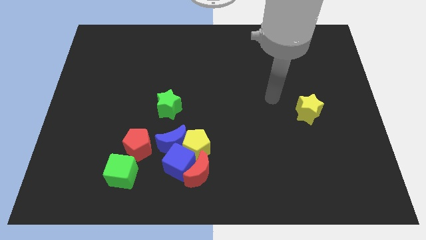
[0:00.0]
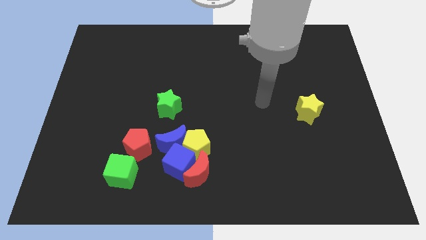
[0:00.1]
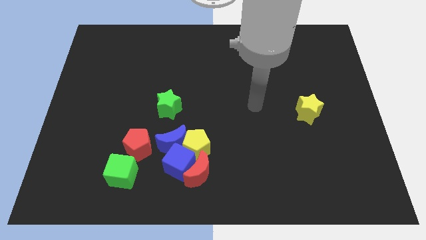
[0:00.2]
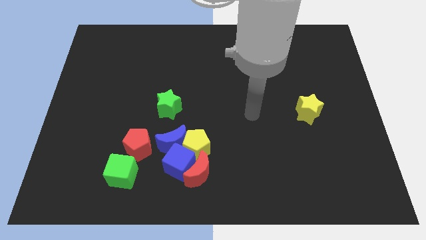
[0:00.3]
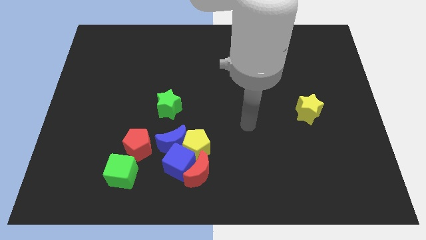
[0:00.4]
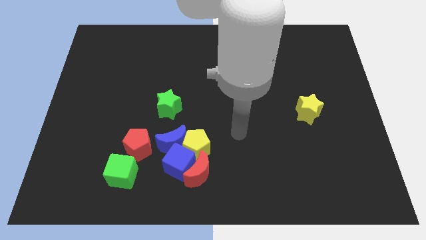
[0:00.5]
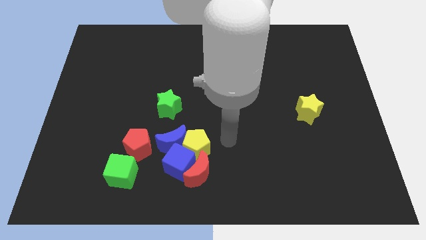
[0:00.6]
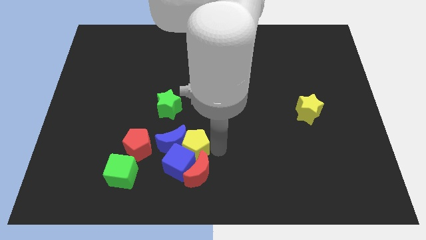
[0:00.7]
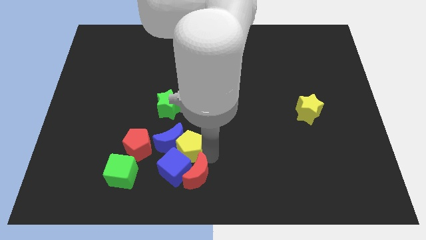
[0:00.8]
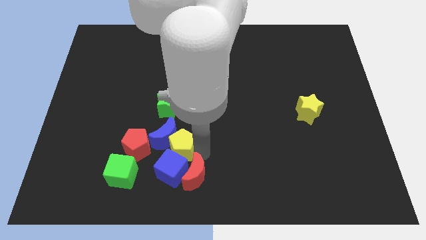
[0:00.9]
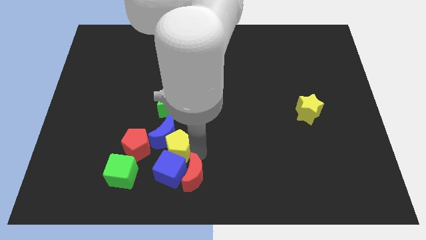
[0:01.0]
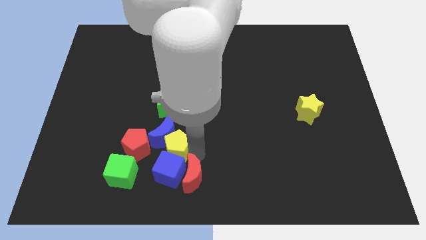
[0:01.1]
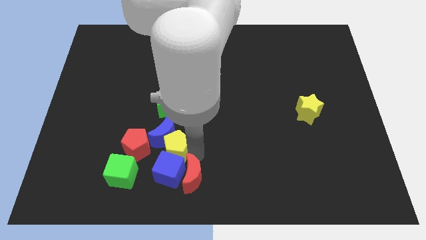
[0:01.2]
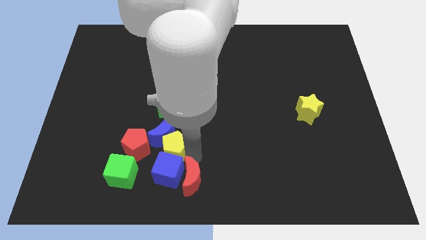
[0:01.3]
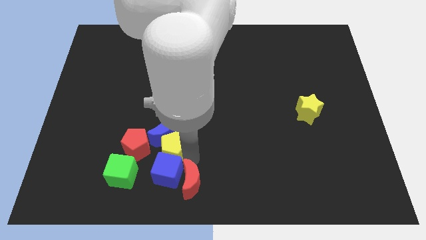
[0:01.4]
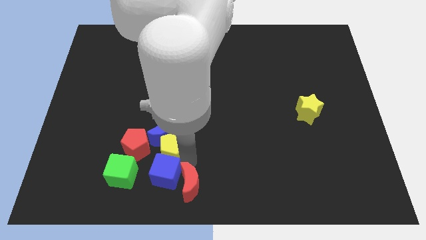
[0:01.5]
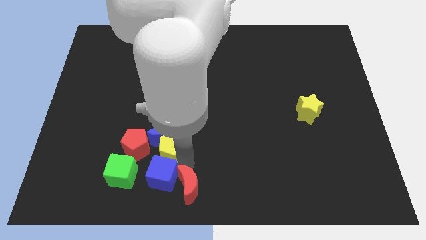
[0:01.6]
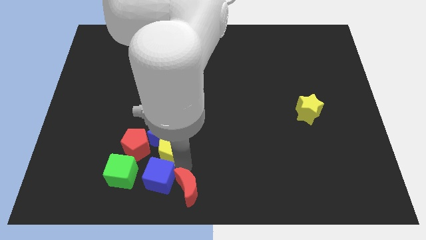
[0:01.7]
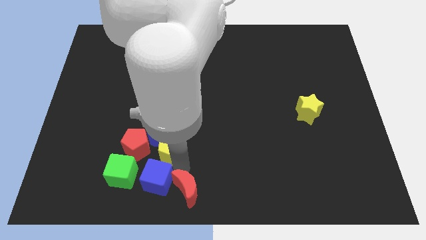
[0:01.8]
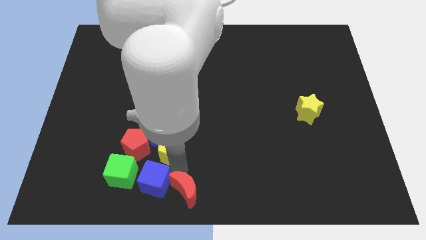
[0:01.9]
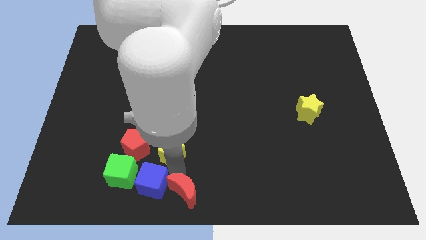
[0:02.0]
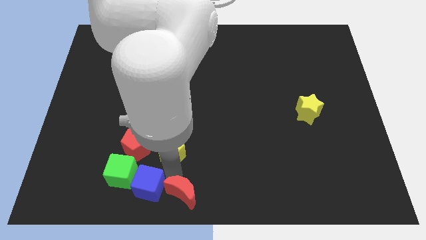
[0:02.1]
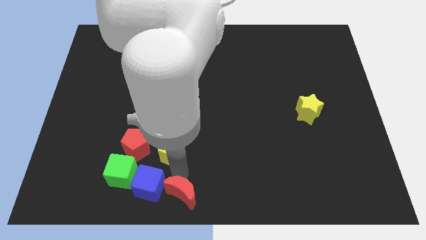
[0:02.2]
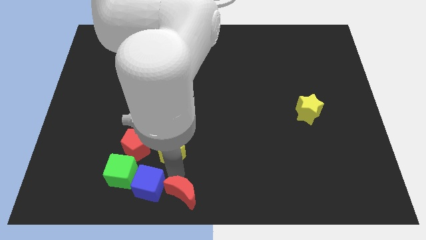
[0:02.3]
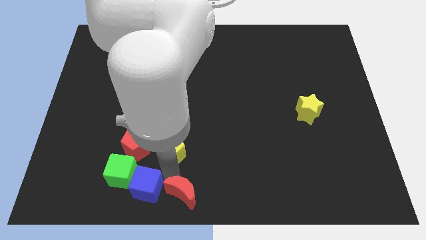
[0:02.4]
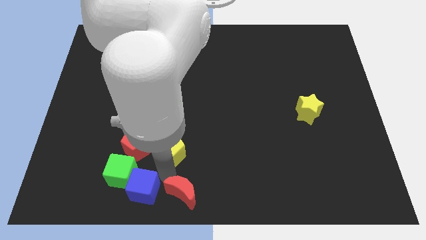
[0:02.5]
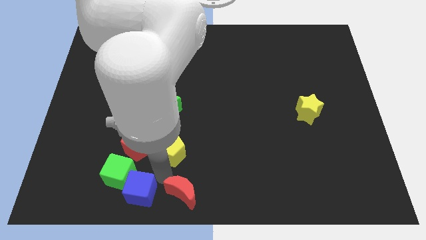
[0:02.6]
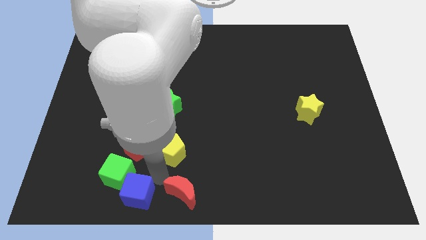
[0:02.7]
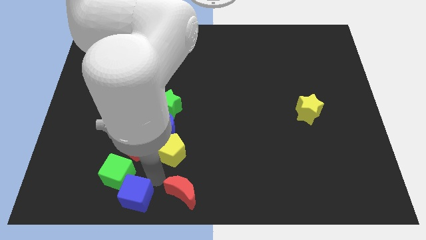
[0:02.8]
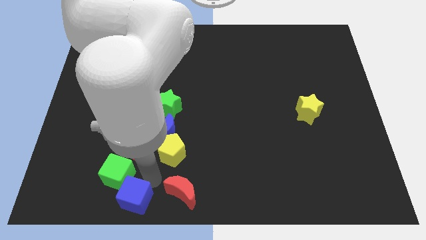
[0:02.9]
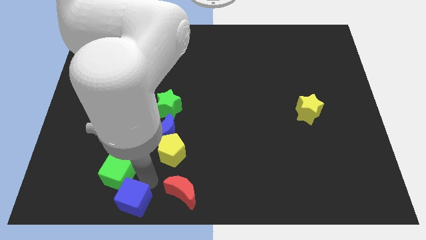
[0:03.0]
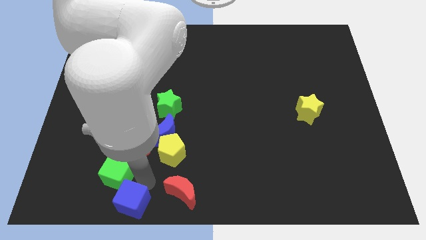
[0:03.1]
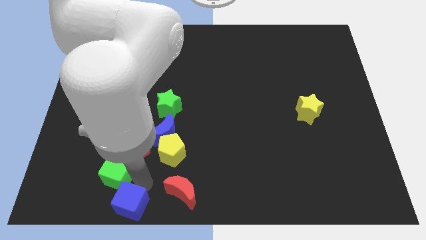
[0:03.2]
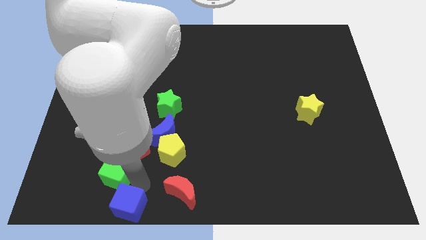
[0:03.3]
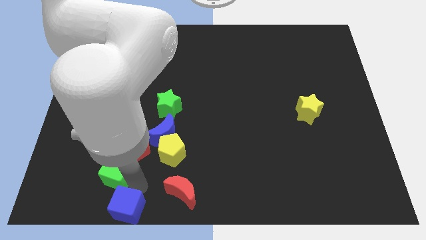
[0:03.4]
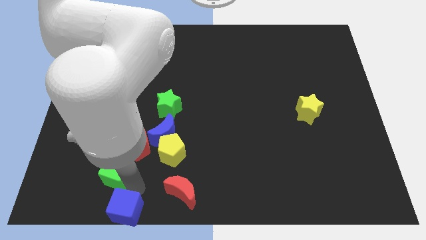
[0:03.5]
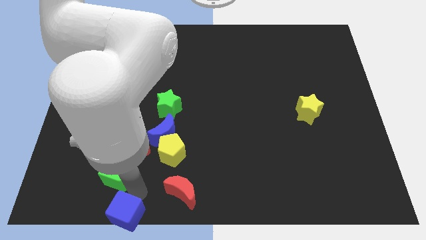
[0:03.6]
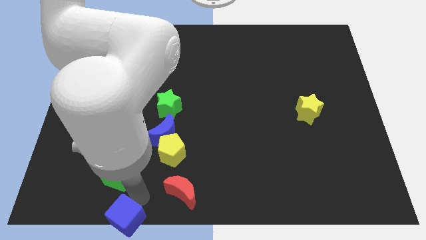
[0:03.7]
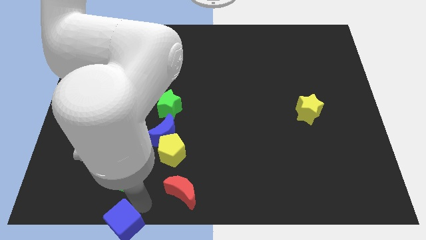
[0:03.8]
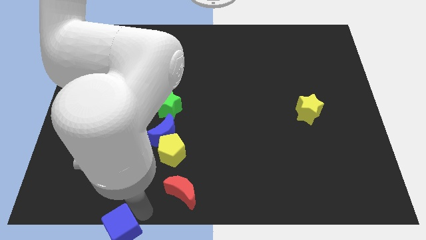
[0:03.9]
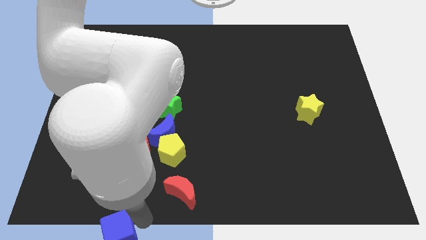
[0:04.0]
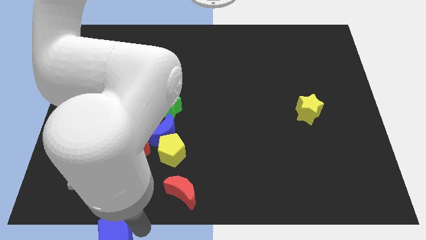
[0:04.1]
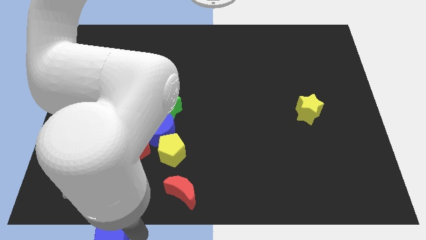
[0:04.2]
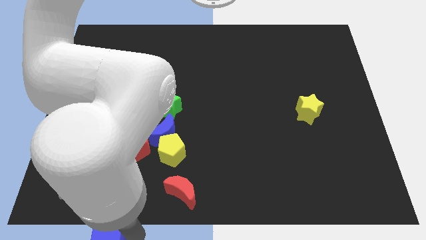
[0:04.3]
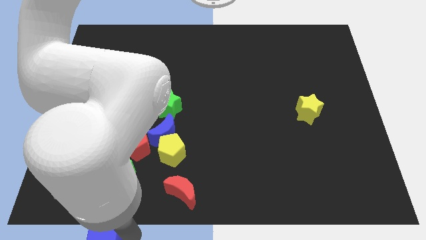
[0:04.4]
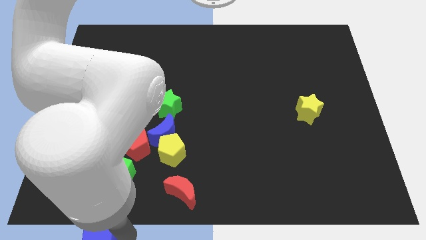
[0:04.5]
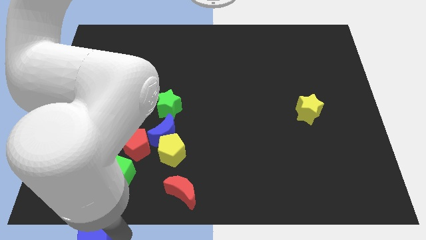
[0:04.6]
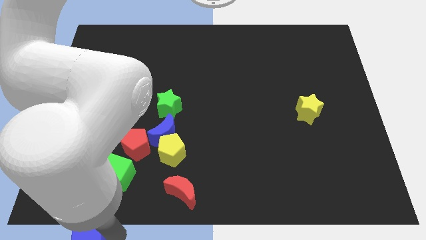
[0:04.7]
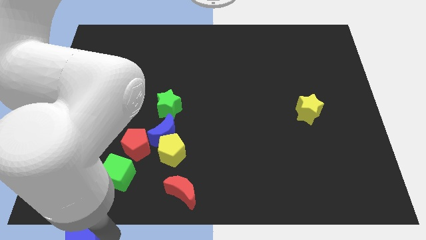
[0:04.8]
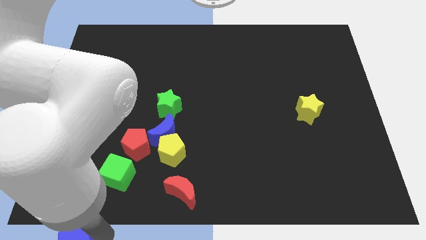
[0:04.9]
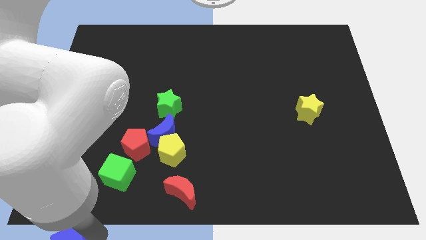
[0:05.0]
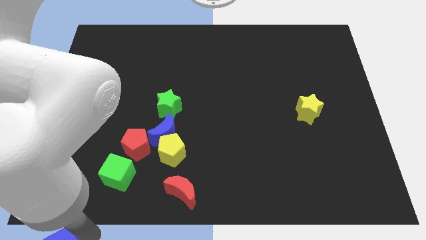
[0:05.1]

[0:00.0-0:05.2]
push the blue cube to the bottom left

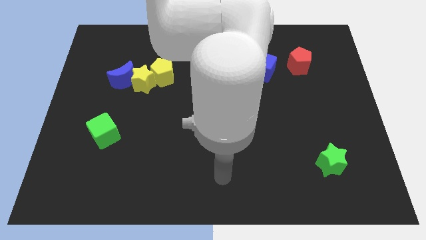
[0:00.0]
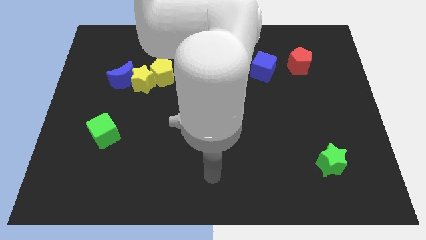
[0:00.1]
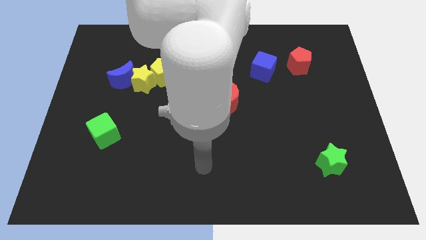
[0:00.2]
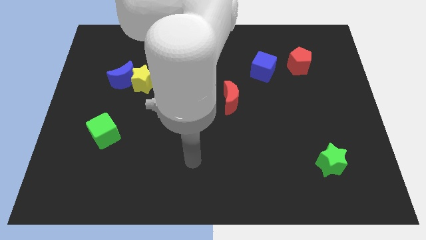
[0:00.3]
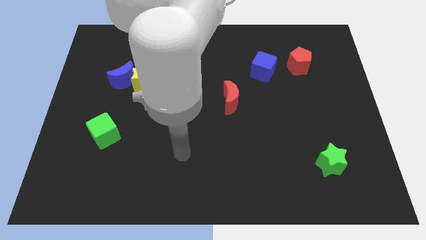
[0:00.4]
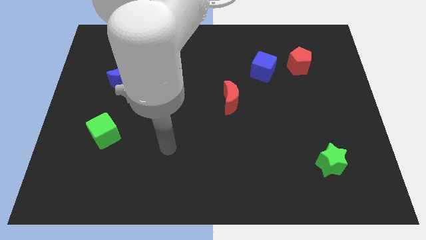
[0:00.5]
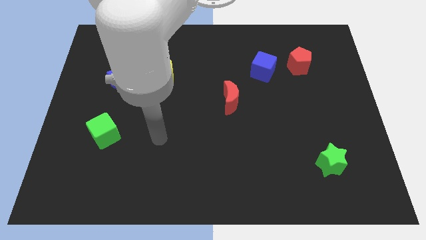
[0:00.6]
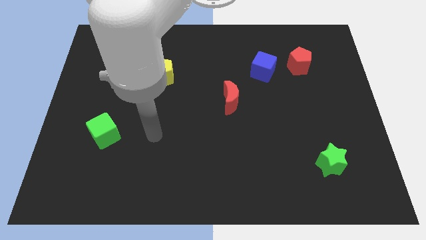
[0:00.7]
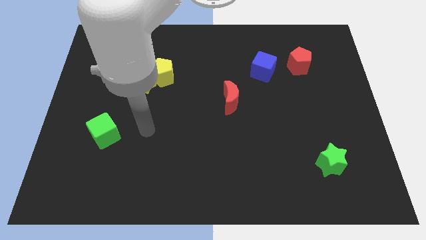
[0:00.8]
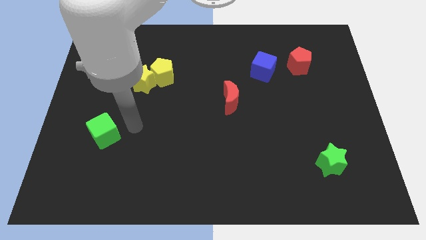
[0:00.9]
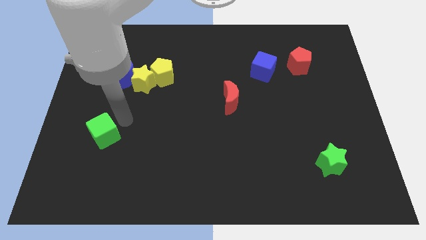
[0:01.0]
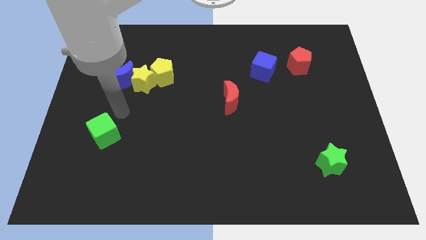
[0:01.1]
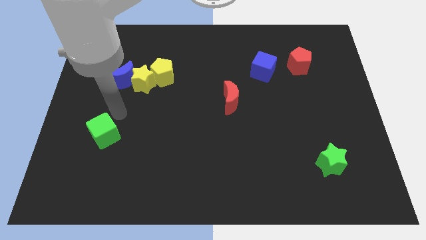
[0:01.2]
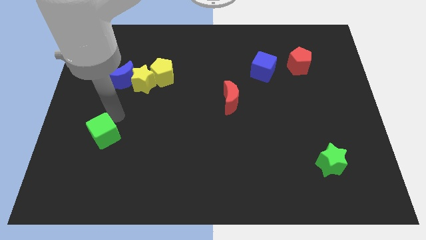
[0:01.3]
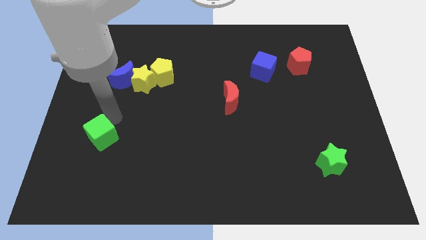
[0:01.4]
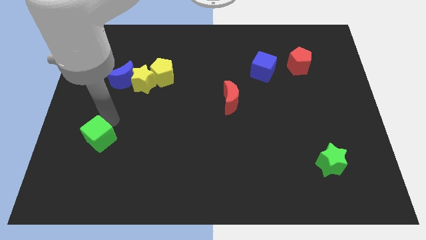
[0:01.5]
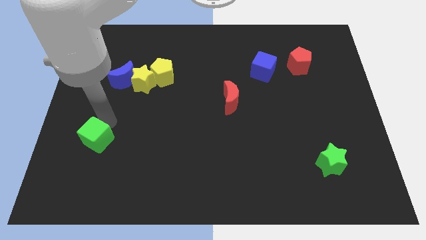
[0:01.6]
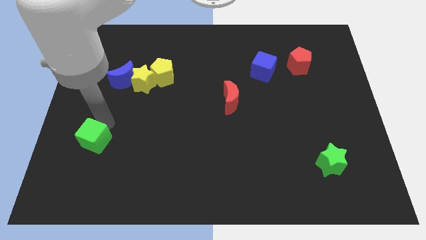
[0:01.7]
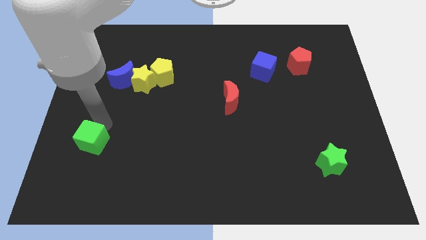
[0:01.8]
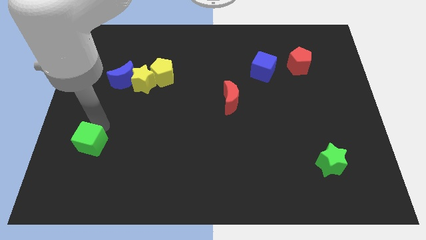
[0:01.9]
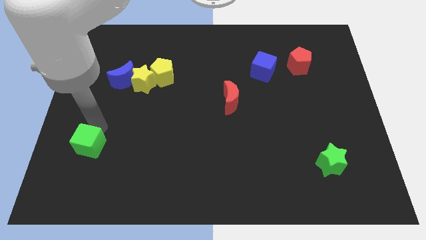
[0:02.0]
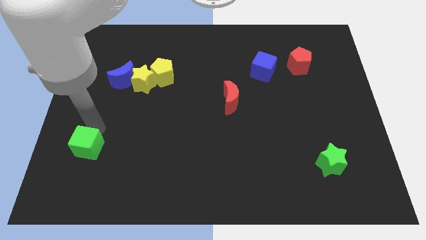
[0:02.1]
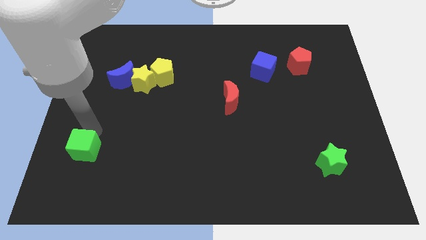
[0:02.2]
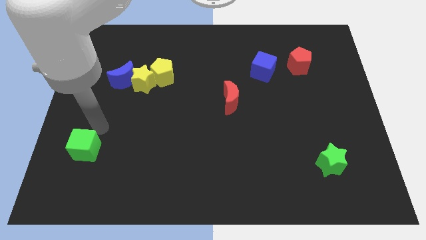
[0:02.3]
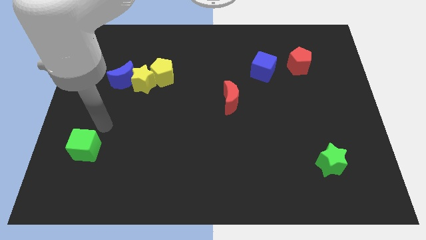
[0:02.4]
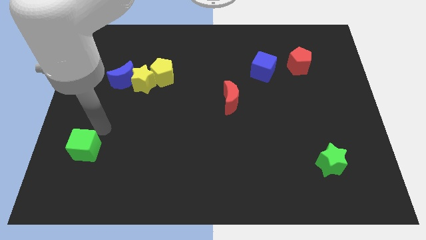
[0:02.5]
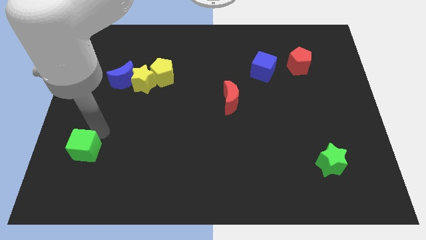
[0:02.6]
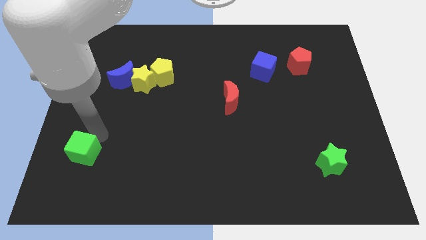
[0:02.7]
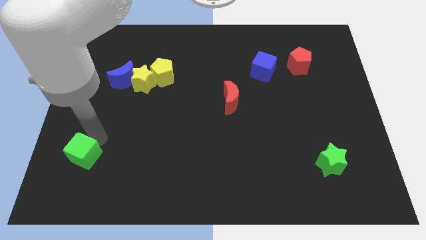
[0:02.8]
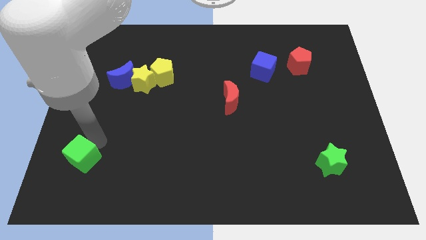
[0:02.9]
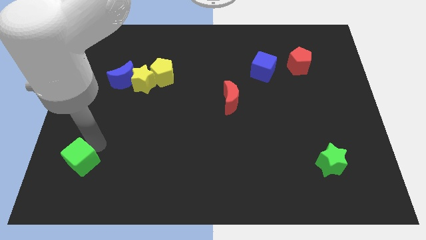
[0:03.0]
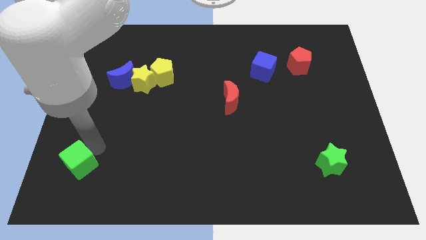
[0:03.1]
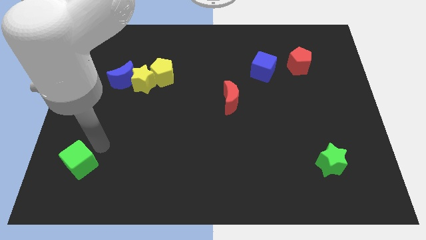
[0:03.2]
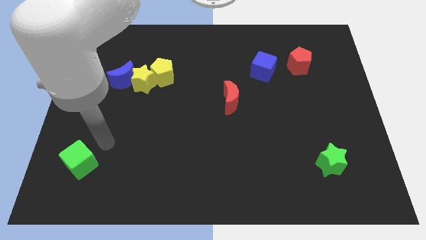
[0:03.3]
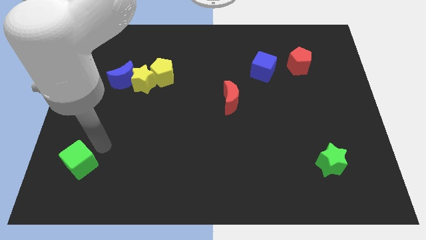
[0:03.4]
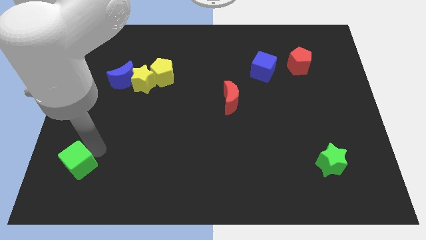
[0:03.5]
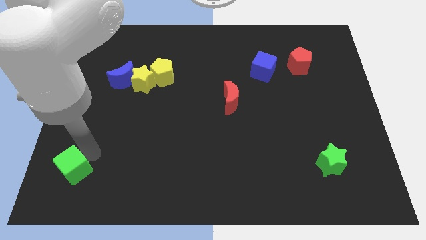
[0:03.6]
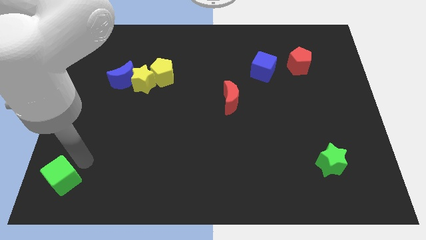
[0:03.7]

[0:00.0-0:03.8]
put the green cube to the bottom left corner
